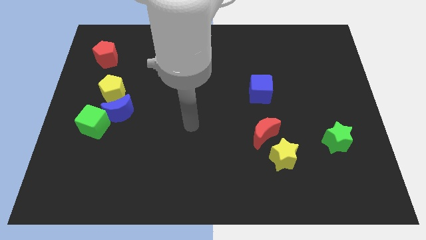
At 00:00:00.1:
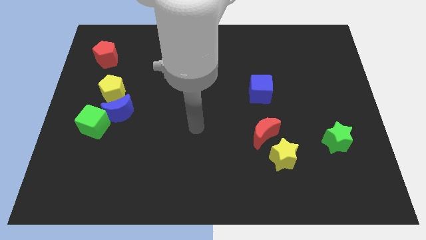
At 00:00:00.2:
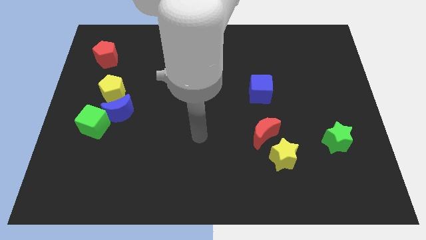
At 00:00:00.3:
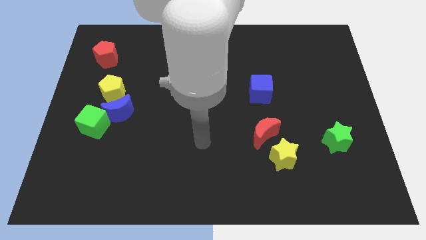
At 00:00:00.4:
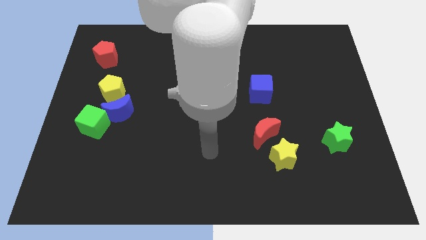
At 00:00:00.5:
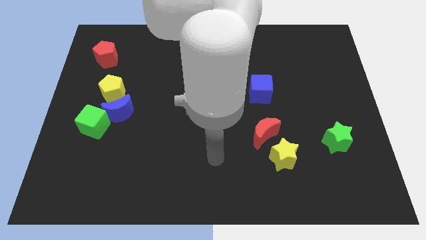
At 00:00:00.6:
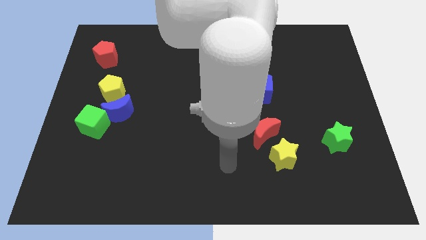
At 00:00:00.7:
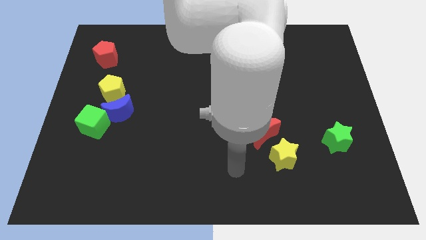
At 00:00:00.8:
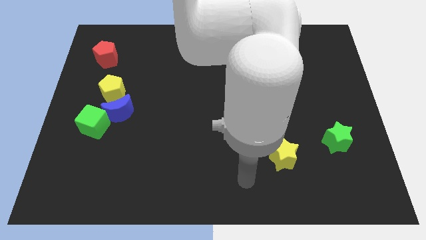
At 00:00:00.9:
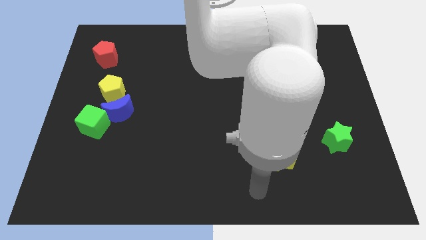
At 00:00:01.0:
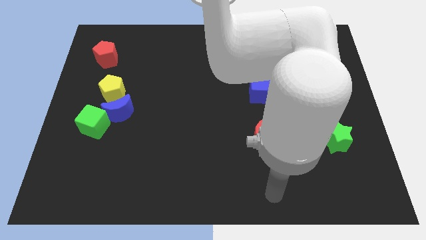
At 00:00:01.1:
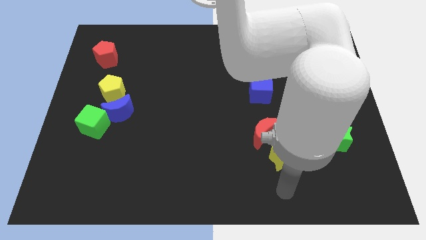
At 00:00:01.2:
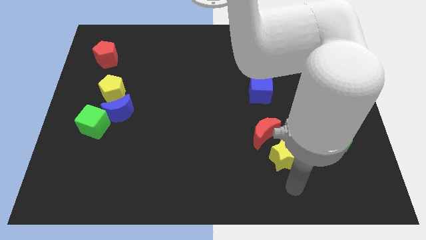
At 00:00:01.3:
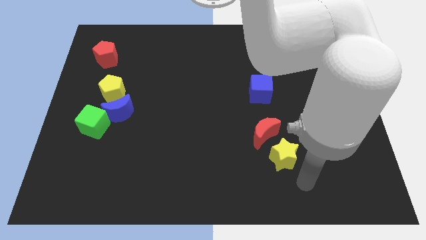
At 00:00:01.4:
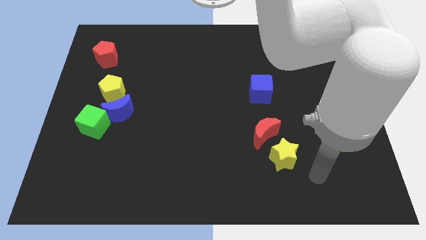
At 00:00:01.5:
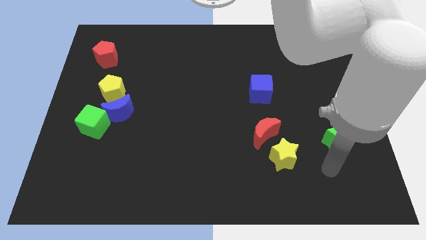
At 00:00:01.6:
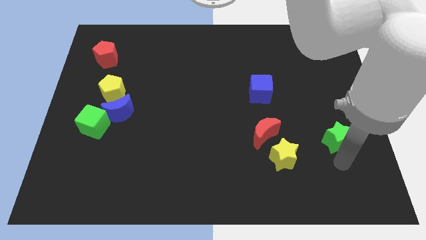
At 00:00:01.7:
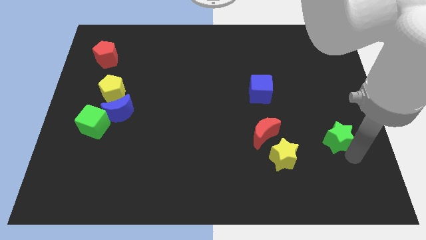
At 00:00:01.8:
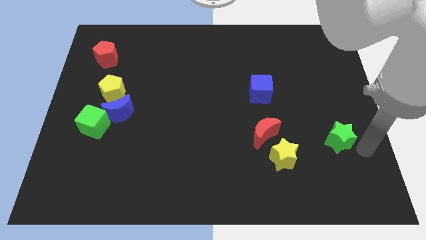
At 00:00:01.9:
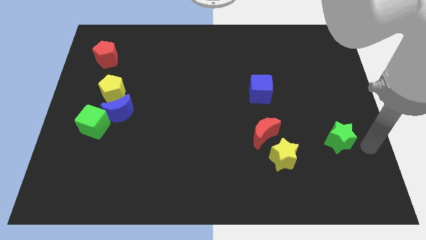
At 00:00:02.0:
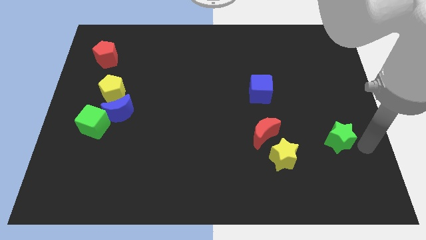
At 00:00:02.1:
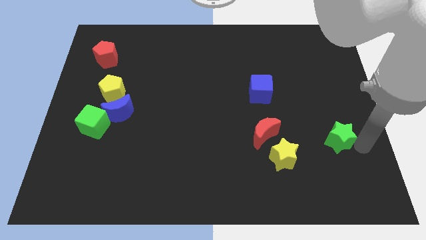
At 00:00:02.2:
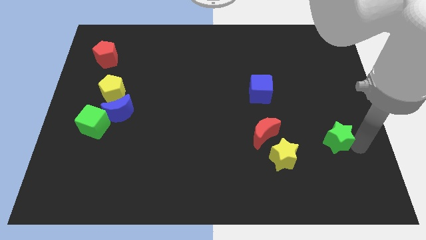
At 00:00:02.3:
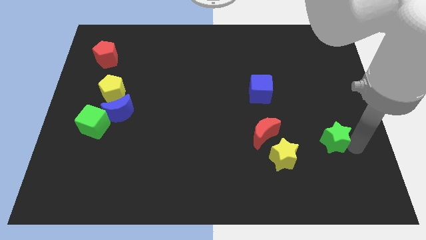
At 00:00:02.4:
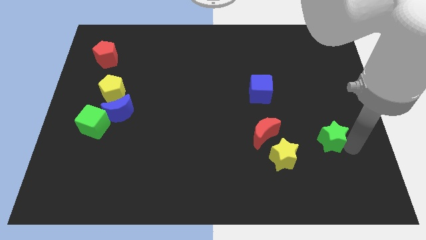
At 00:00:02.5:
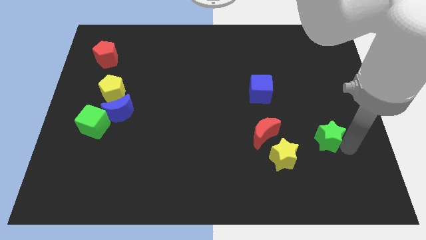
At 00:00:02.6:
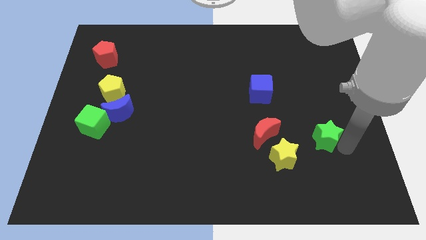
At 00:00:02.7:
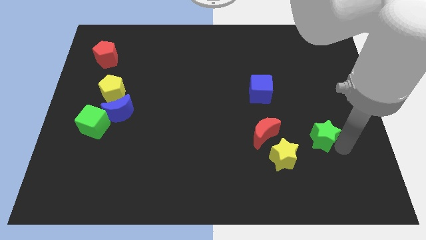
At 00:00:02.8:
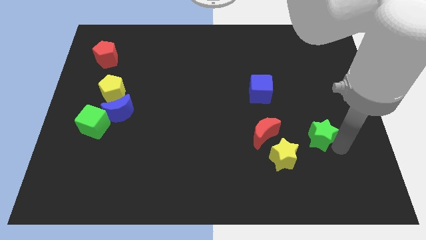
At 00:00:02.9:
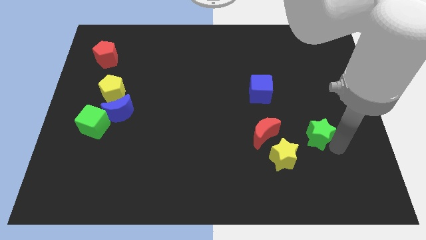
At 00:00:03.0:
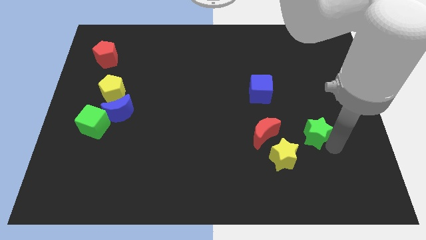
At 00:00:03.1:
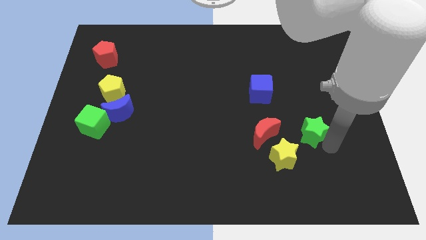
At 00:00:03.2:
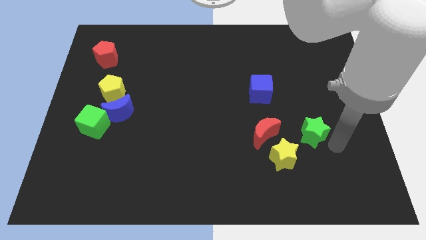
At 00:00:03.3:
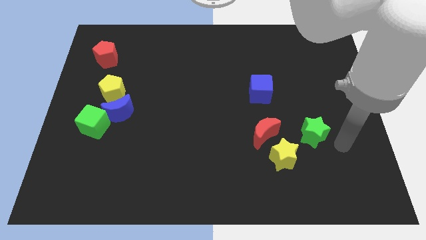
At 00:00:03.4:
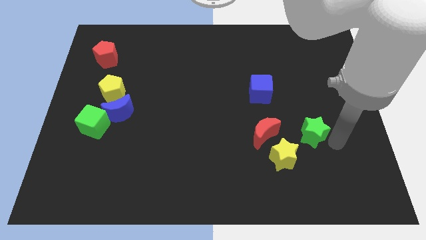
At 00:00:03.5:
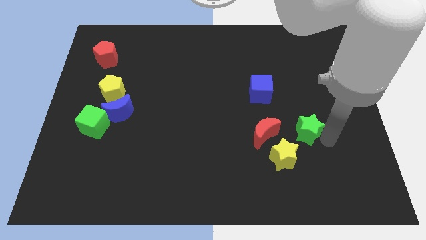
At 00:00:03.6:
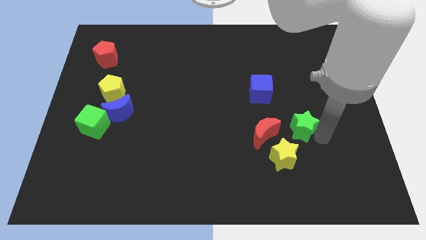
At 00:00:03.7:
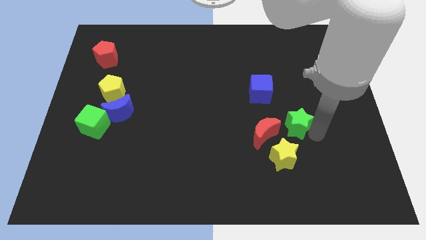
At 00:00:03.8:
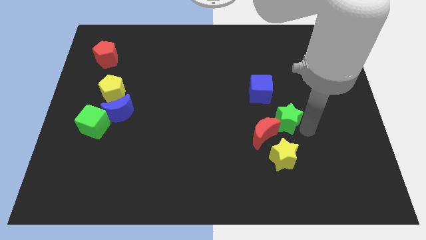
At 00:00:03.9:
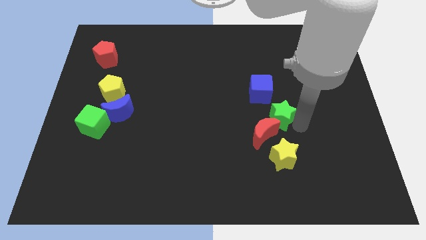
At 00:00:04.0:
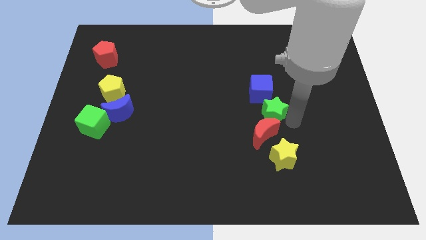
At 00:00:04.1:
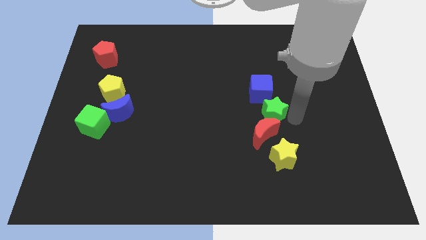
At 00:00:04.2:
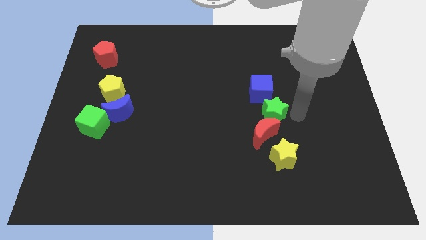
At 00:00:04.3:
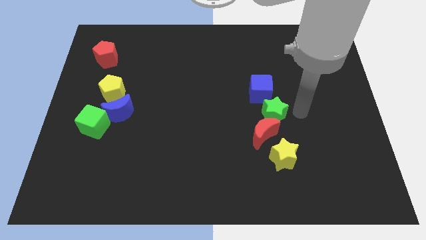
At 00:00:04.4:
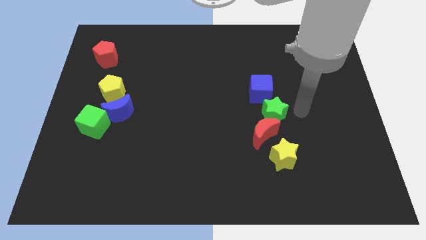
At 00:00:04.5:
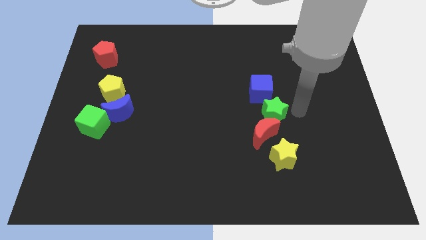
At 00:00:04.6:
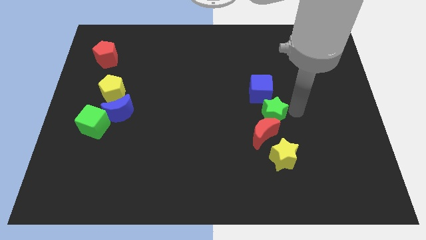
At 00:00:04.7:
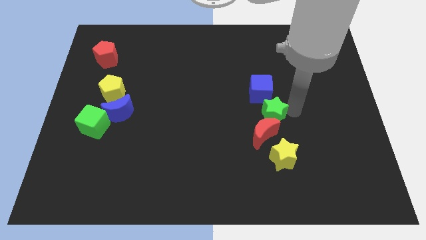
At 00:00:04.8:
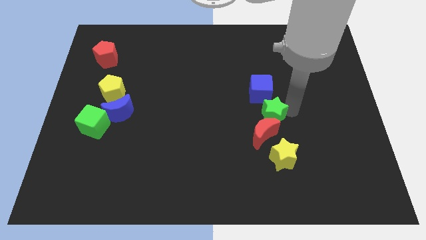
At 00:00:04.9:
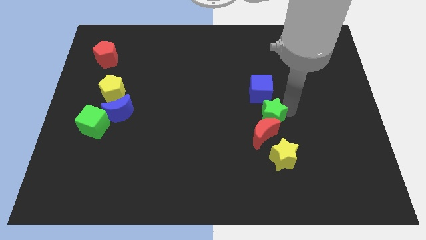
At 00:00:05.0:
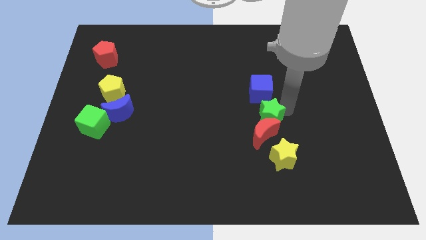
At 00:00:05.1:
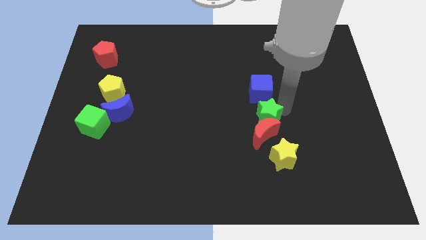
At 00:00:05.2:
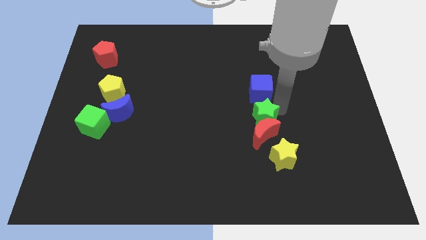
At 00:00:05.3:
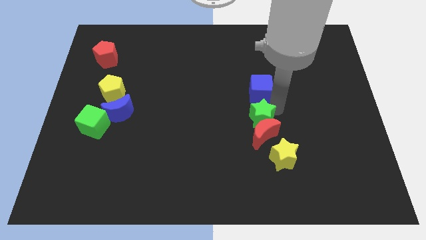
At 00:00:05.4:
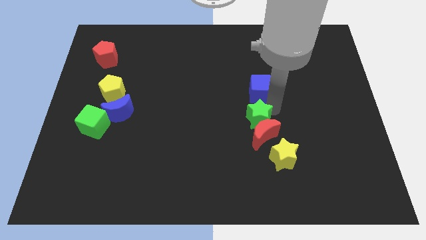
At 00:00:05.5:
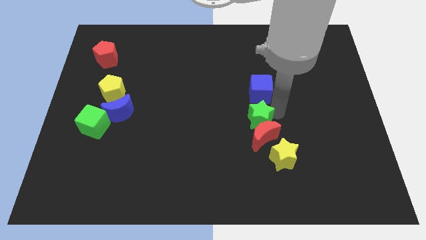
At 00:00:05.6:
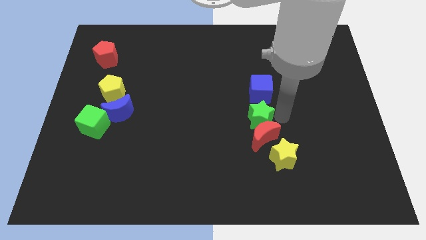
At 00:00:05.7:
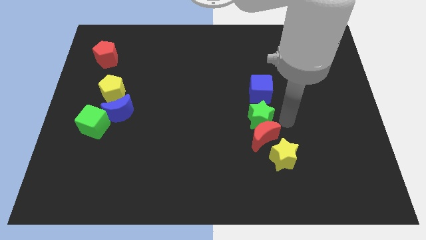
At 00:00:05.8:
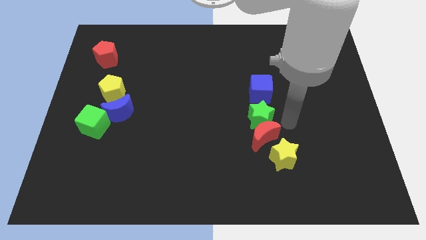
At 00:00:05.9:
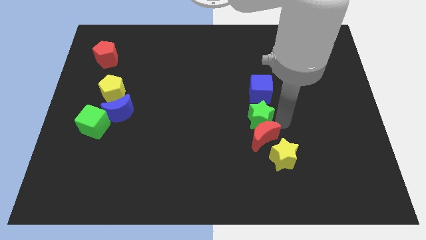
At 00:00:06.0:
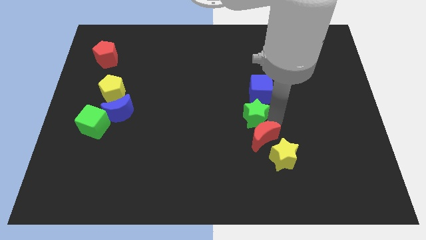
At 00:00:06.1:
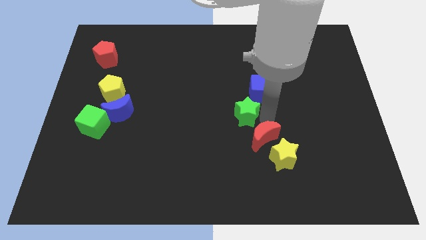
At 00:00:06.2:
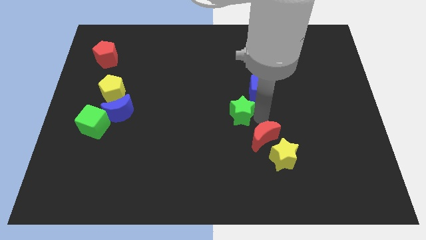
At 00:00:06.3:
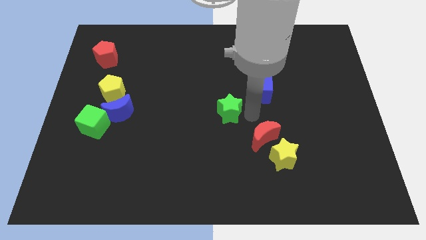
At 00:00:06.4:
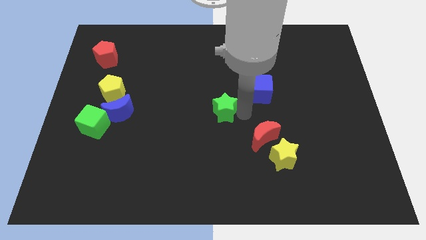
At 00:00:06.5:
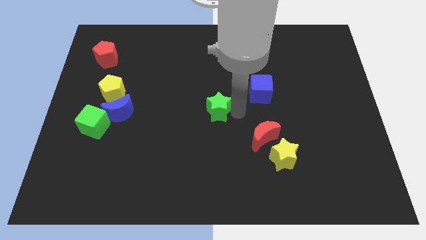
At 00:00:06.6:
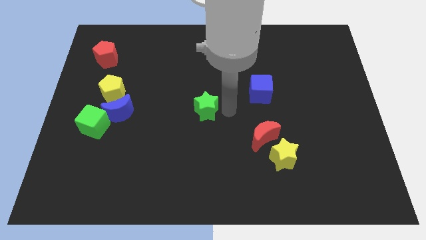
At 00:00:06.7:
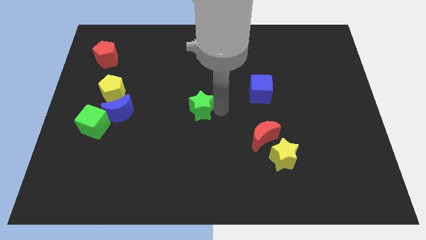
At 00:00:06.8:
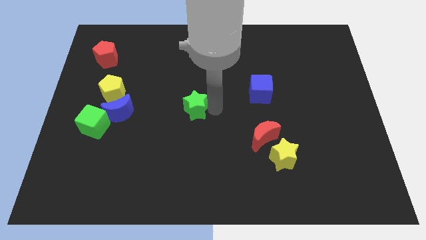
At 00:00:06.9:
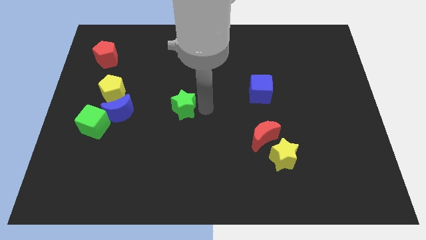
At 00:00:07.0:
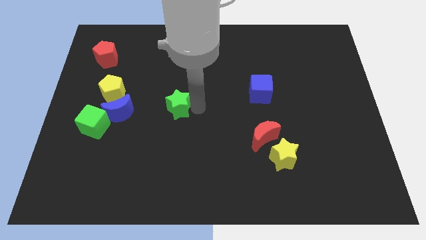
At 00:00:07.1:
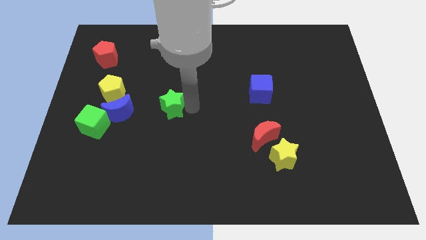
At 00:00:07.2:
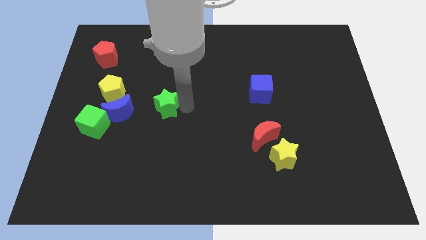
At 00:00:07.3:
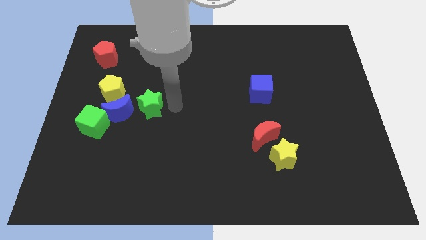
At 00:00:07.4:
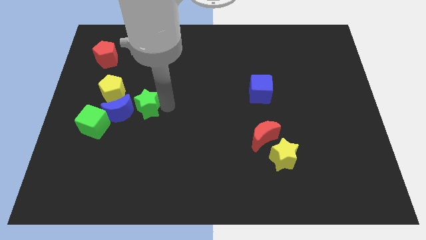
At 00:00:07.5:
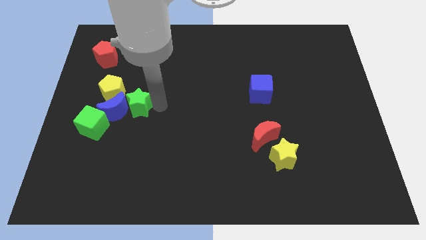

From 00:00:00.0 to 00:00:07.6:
put the green star close to the blue moon
